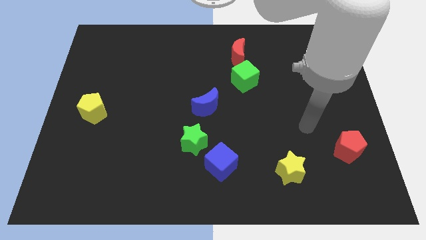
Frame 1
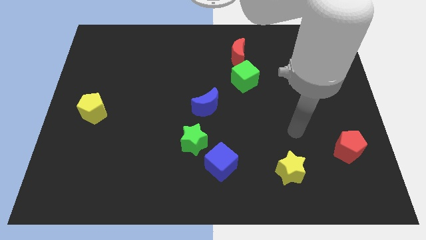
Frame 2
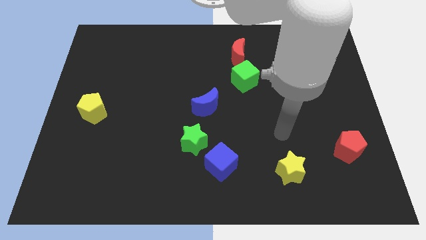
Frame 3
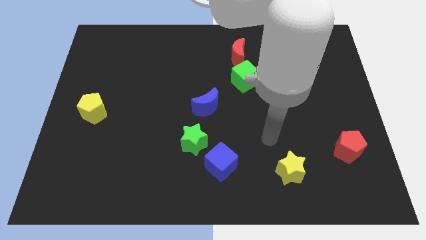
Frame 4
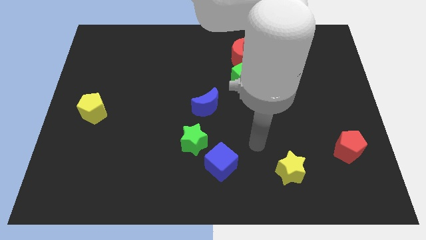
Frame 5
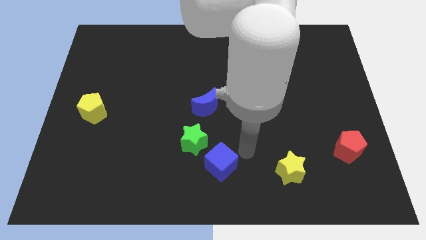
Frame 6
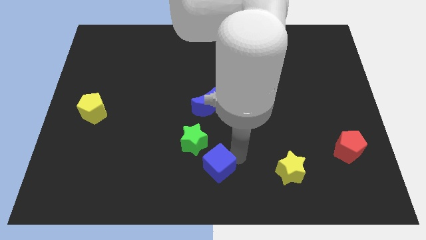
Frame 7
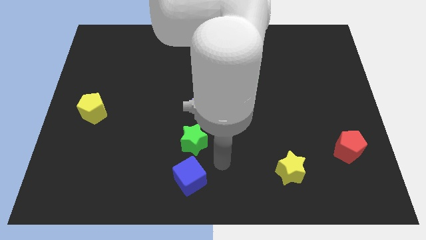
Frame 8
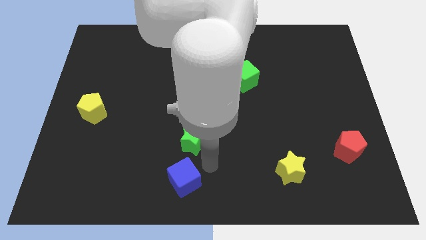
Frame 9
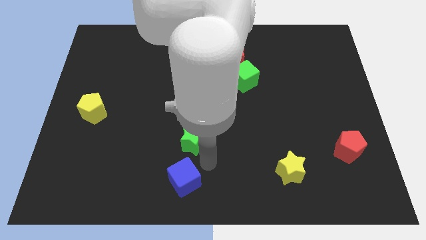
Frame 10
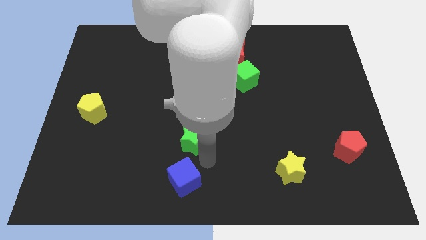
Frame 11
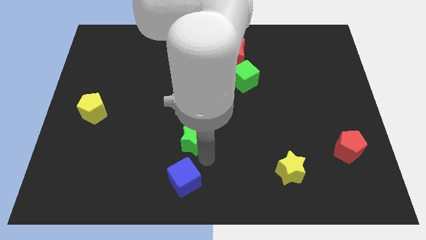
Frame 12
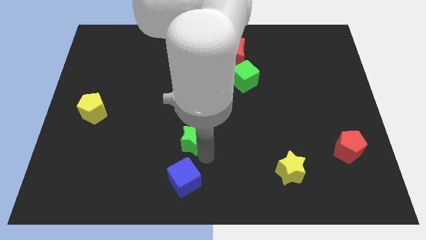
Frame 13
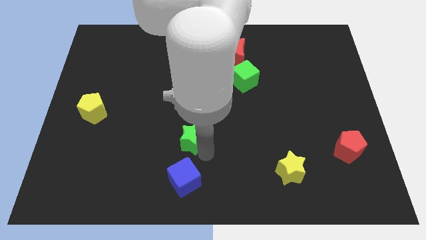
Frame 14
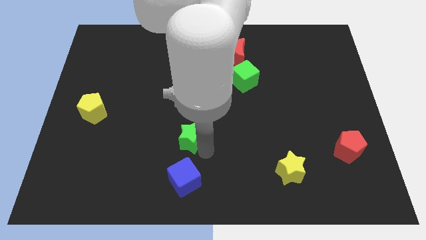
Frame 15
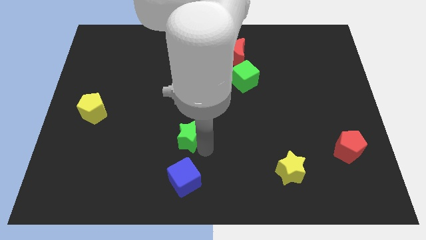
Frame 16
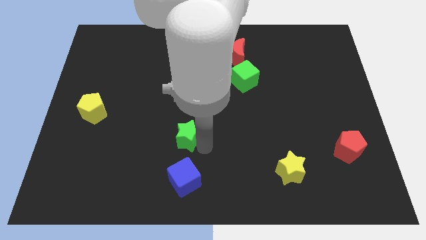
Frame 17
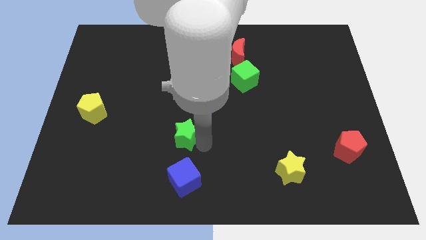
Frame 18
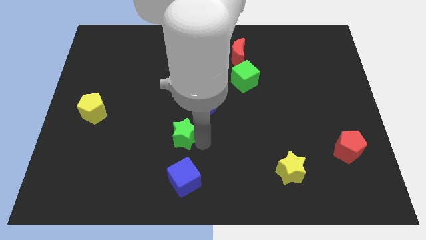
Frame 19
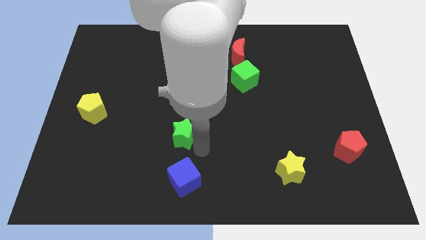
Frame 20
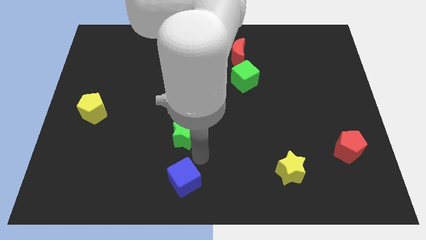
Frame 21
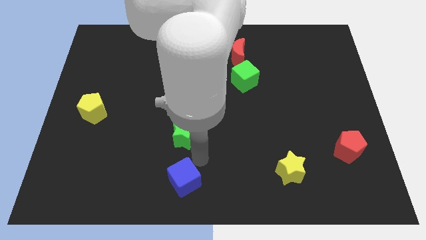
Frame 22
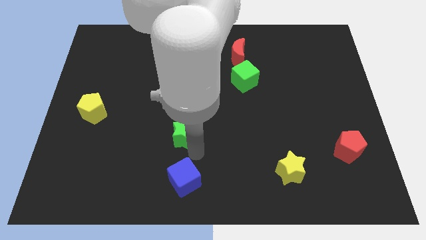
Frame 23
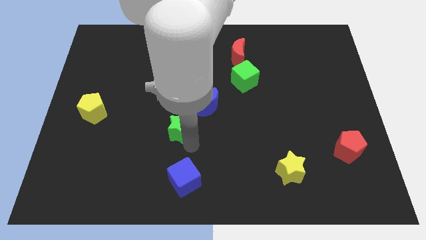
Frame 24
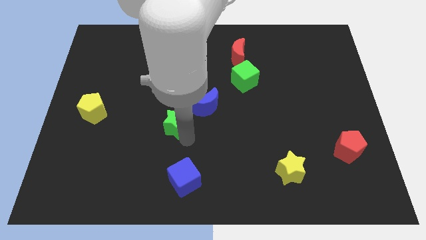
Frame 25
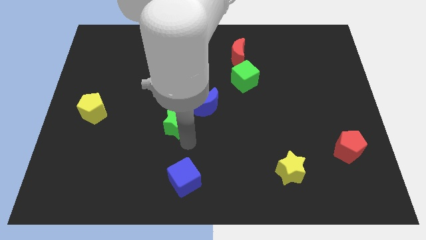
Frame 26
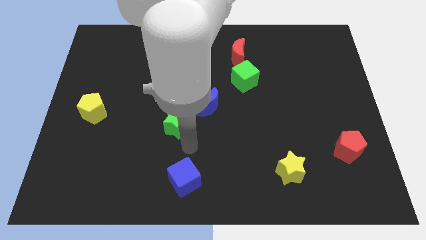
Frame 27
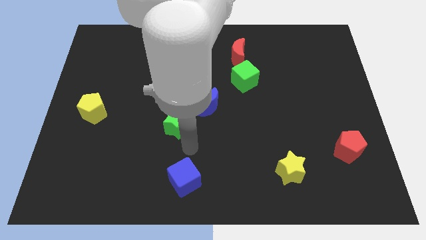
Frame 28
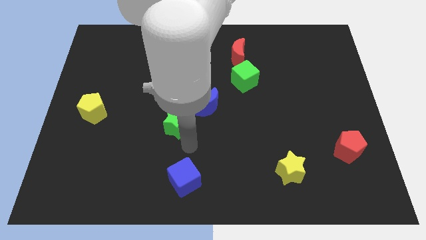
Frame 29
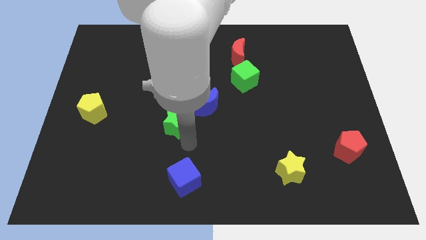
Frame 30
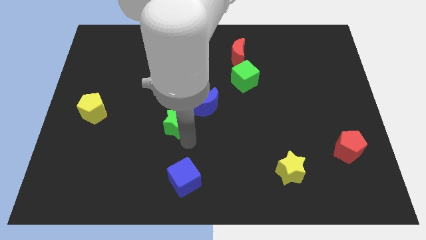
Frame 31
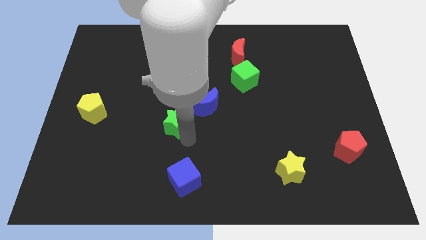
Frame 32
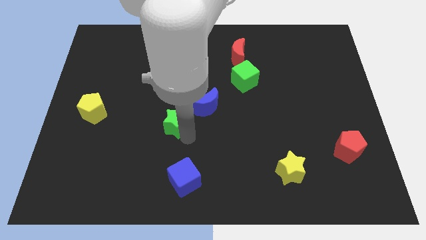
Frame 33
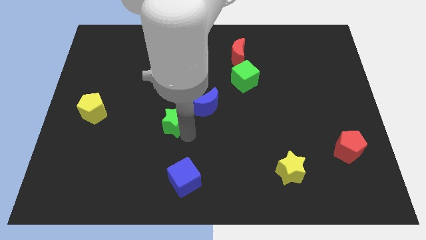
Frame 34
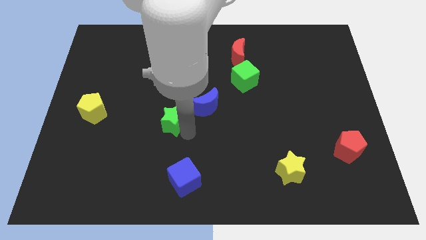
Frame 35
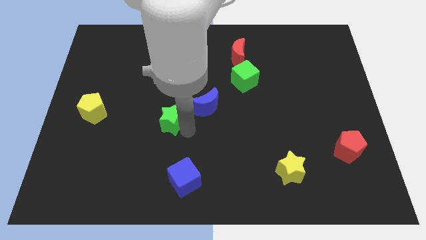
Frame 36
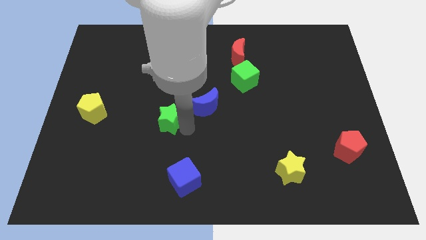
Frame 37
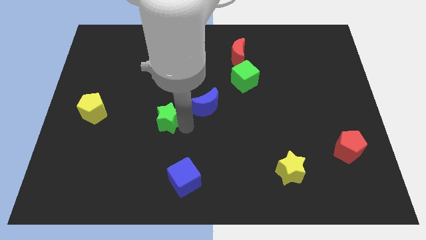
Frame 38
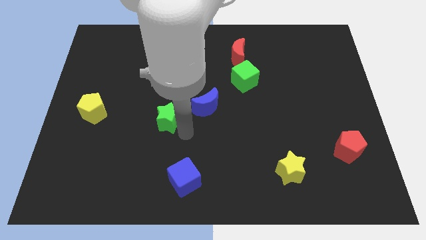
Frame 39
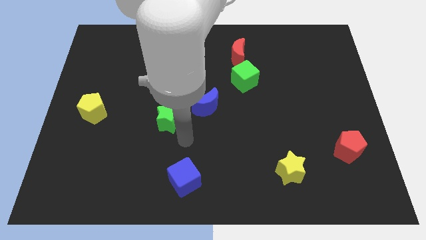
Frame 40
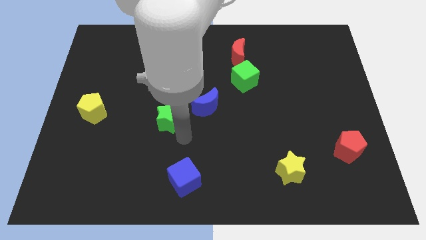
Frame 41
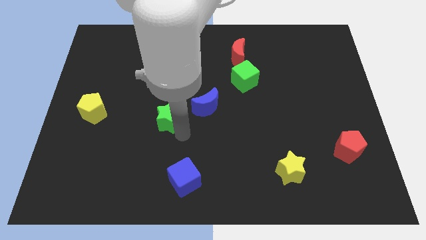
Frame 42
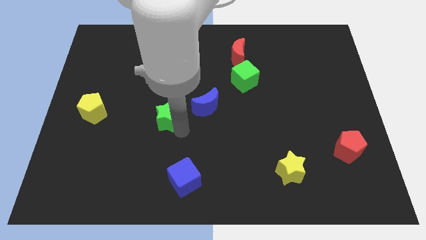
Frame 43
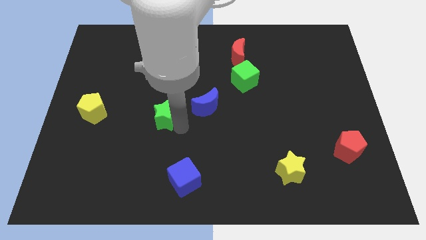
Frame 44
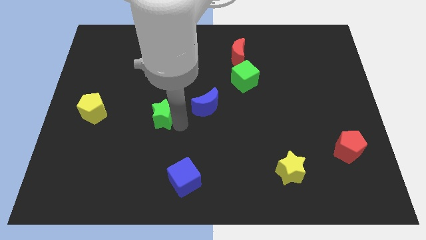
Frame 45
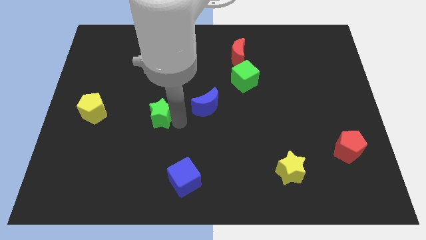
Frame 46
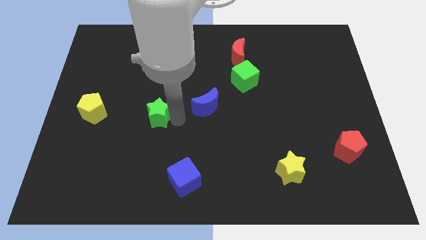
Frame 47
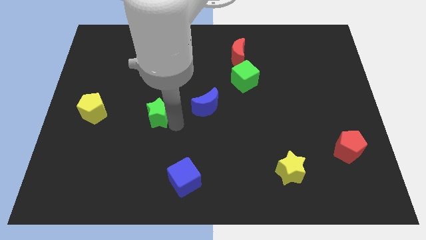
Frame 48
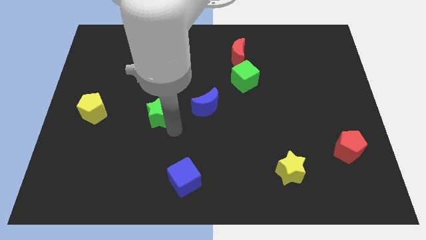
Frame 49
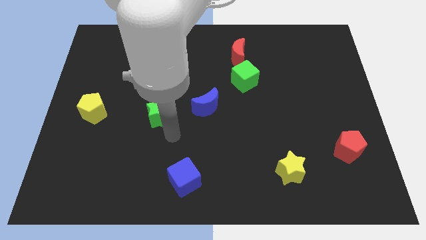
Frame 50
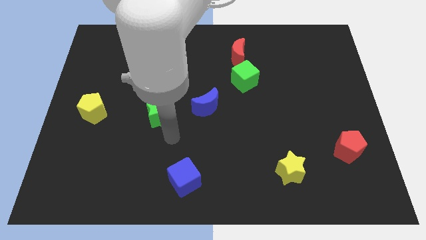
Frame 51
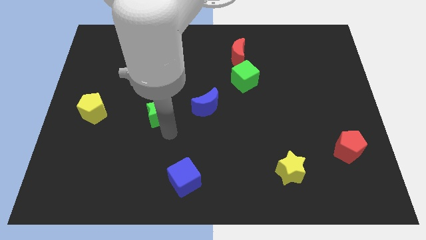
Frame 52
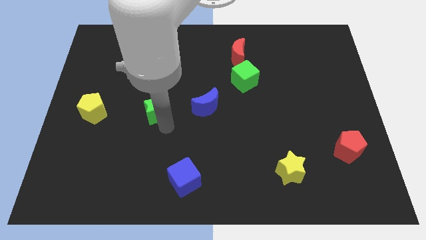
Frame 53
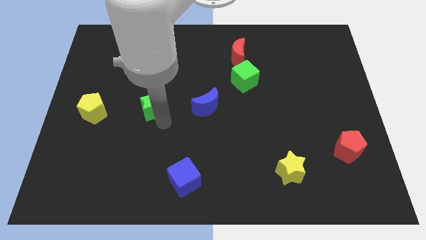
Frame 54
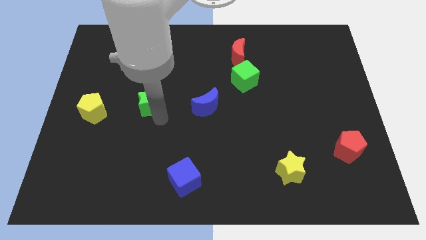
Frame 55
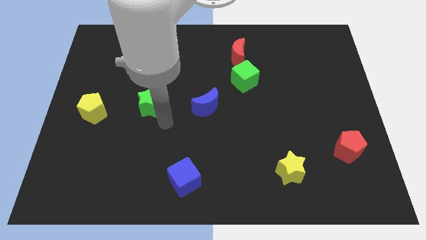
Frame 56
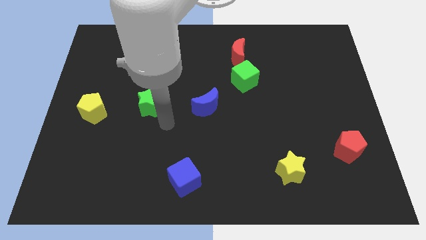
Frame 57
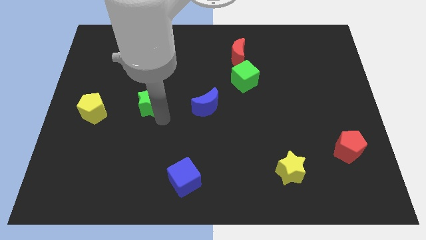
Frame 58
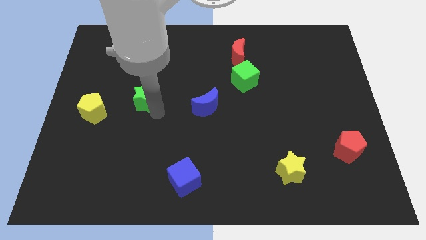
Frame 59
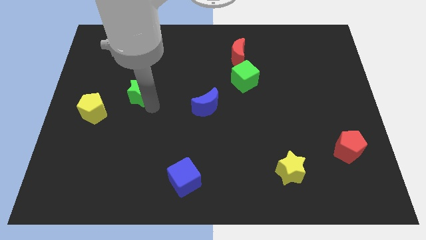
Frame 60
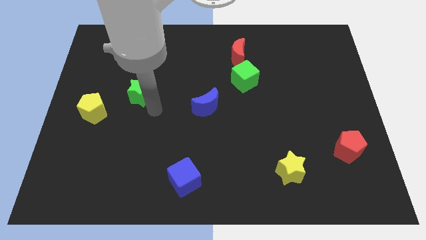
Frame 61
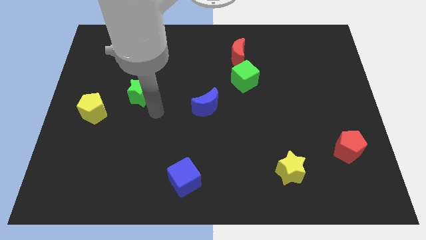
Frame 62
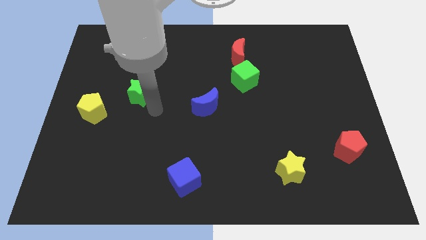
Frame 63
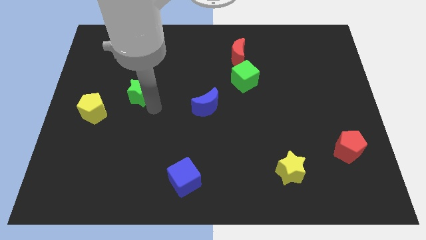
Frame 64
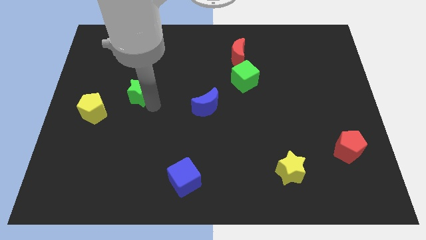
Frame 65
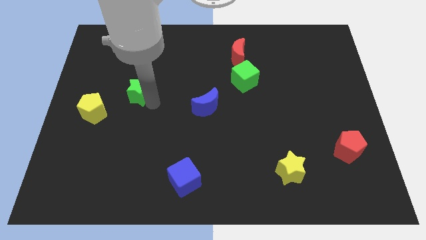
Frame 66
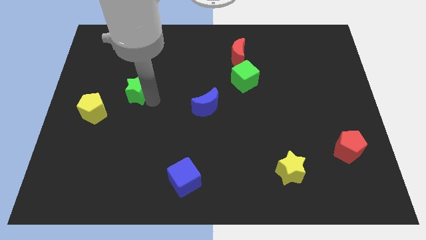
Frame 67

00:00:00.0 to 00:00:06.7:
slide the green star up and then to the left

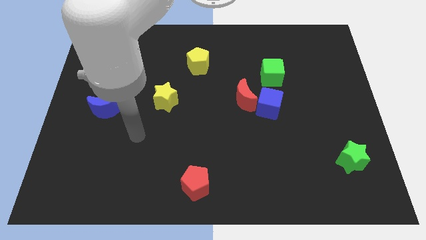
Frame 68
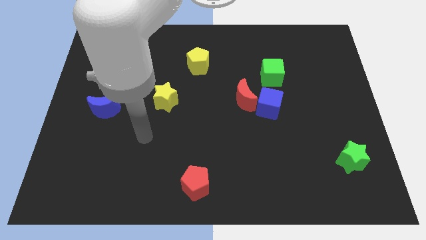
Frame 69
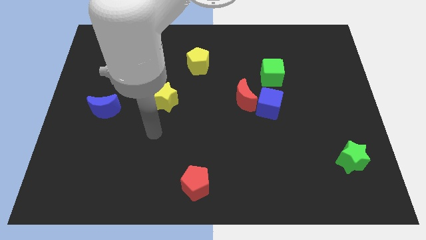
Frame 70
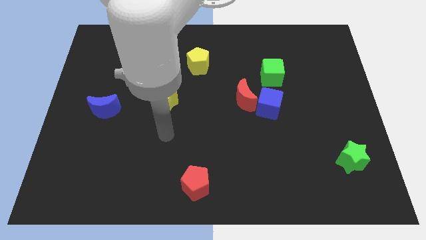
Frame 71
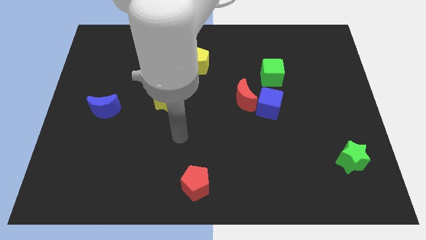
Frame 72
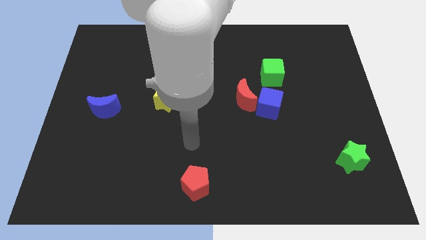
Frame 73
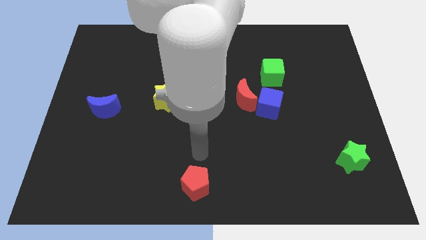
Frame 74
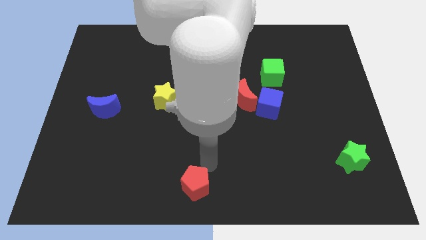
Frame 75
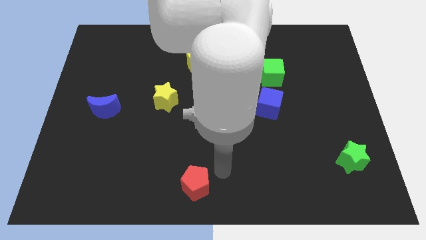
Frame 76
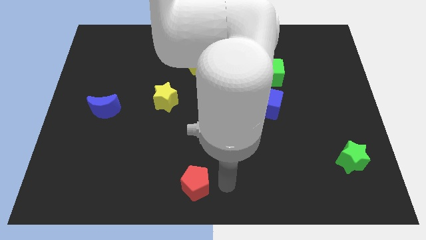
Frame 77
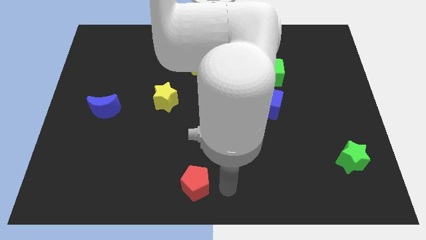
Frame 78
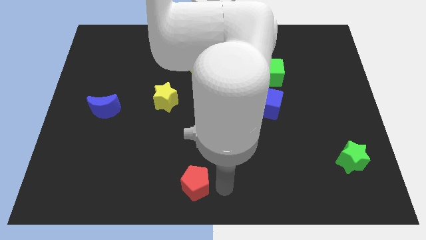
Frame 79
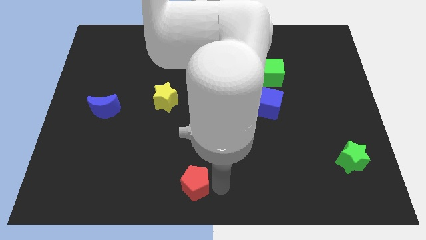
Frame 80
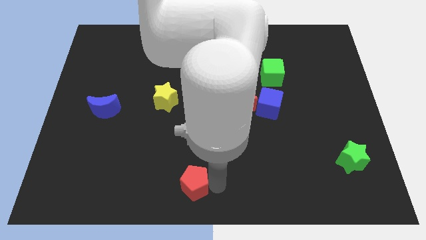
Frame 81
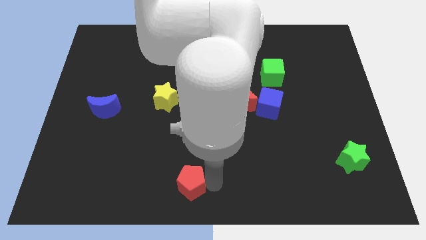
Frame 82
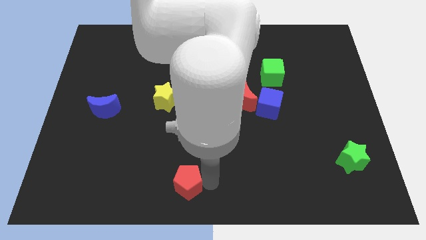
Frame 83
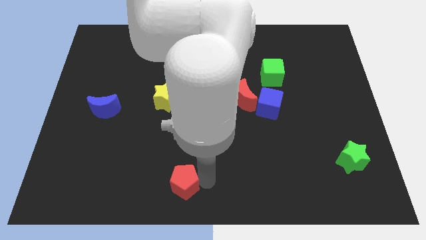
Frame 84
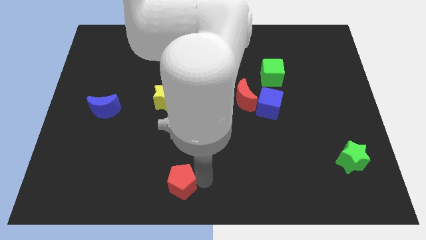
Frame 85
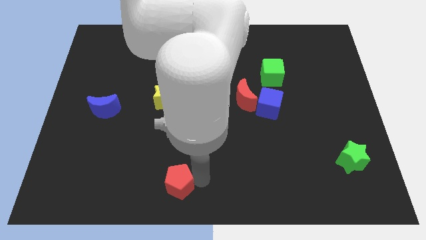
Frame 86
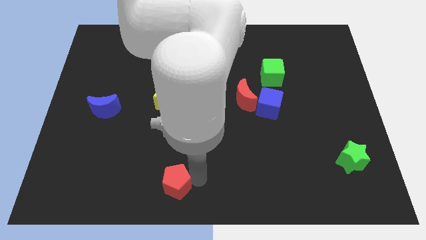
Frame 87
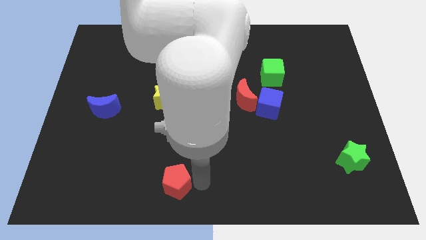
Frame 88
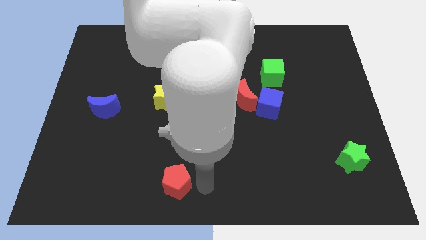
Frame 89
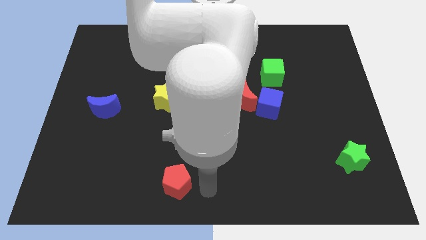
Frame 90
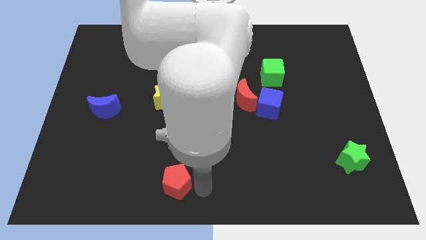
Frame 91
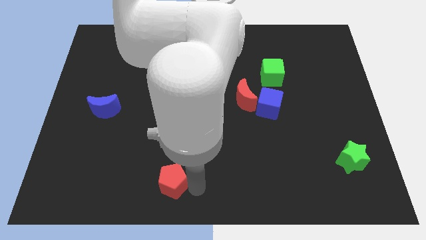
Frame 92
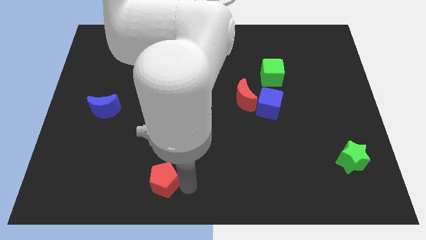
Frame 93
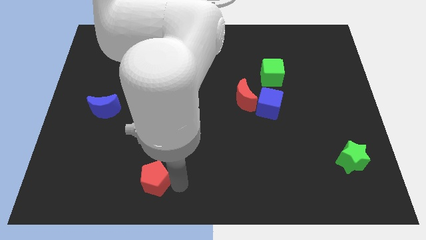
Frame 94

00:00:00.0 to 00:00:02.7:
move the red pentagon left a bit
